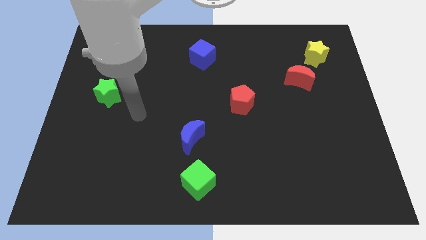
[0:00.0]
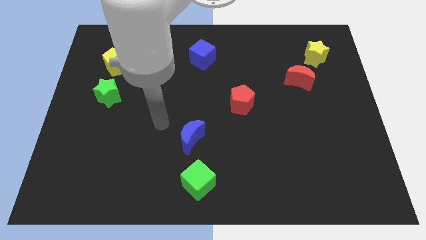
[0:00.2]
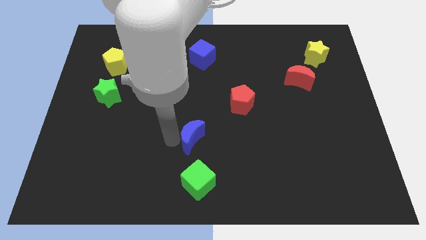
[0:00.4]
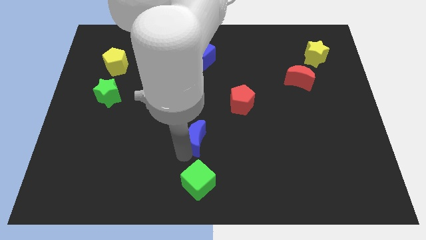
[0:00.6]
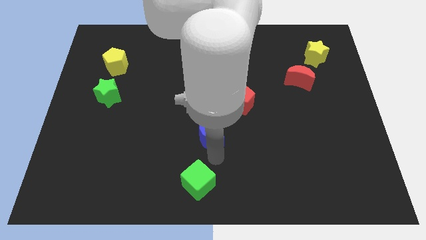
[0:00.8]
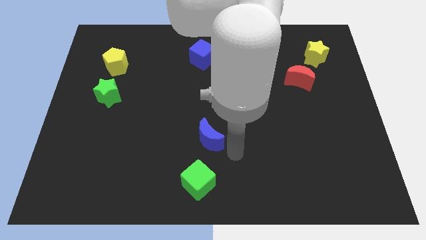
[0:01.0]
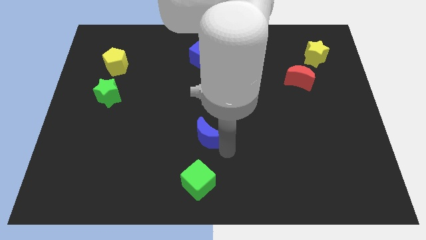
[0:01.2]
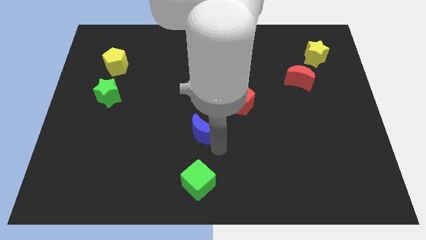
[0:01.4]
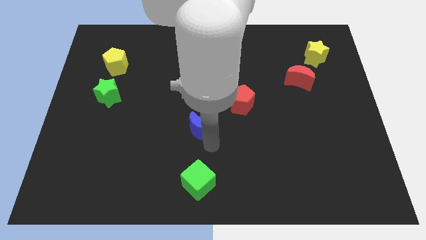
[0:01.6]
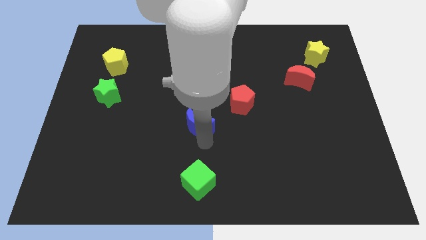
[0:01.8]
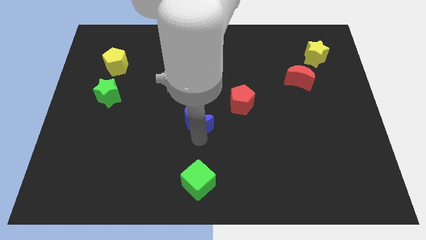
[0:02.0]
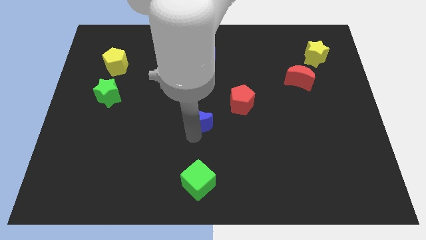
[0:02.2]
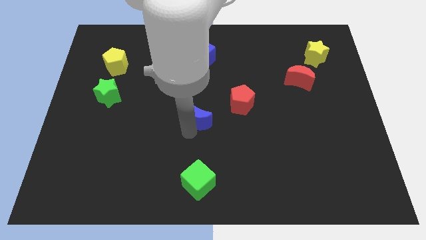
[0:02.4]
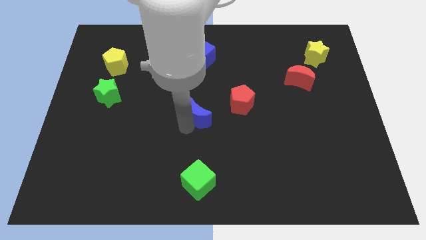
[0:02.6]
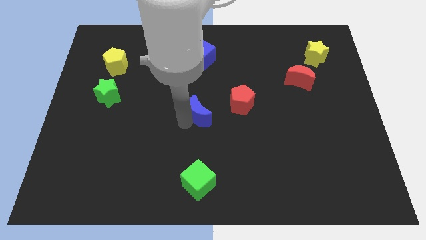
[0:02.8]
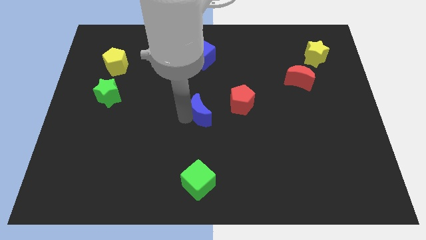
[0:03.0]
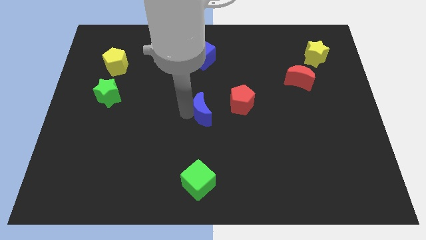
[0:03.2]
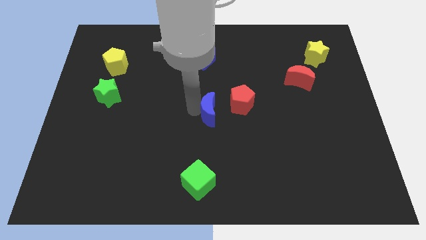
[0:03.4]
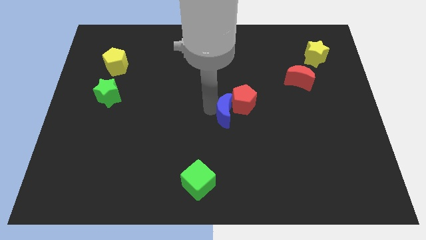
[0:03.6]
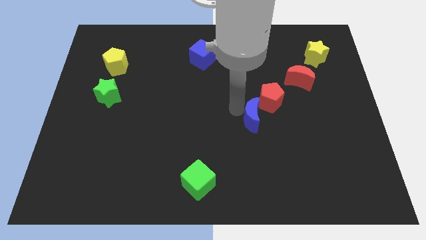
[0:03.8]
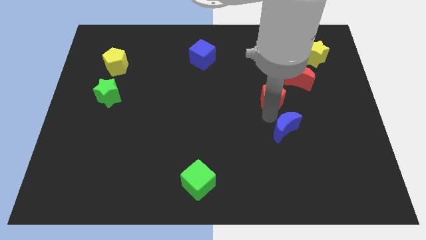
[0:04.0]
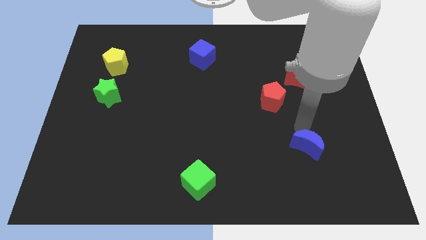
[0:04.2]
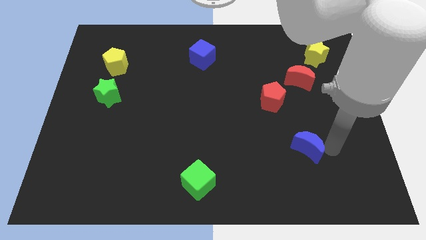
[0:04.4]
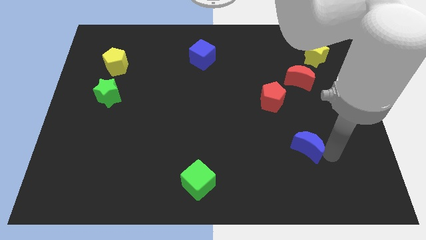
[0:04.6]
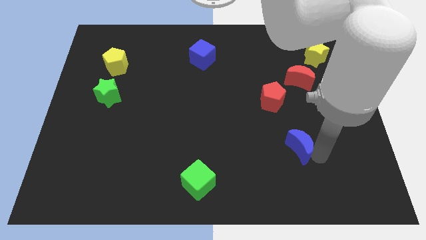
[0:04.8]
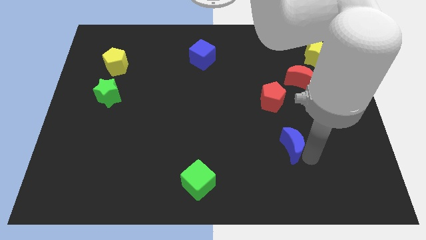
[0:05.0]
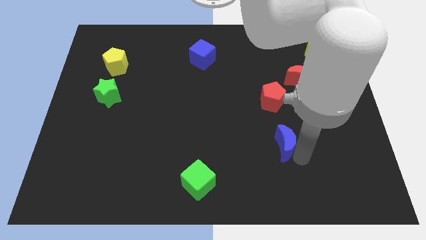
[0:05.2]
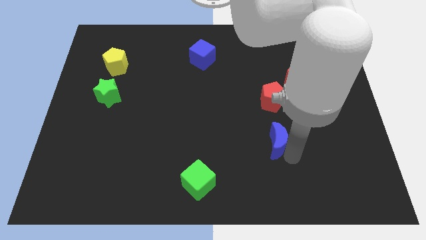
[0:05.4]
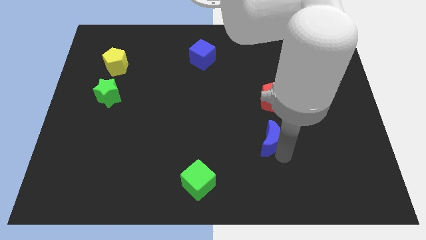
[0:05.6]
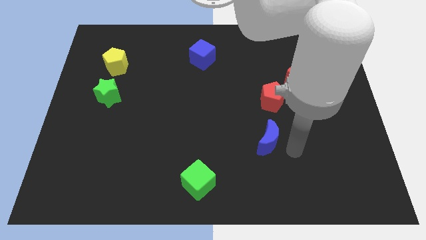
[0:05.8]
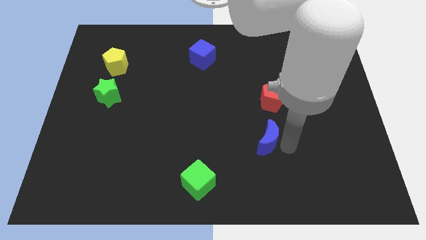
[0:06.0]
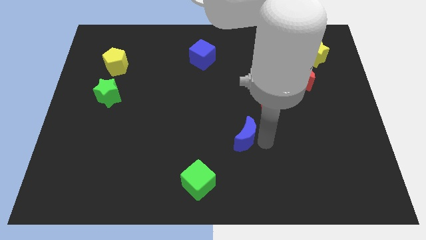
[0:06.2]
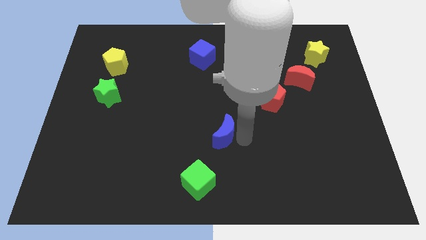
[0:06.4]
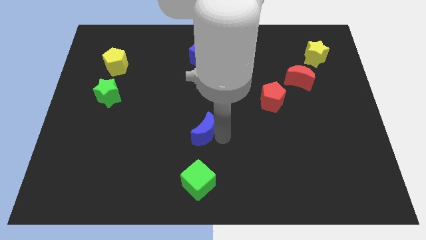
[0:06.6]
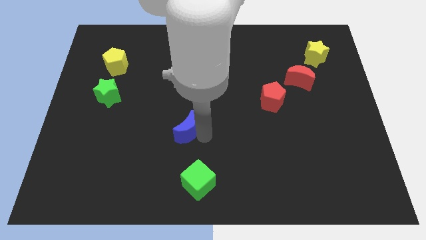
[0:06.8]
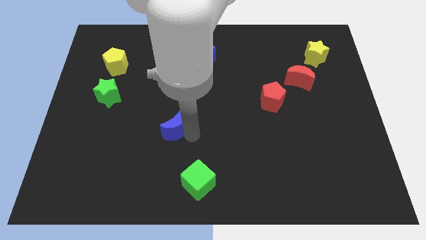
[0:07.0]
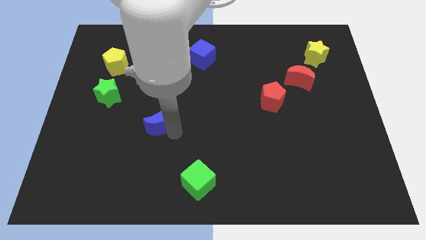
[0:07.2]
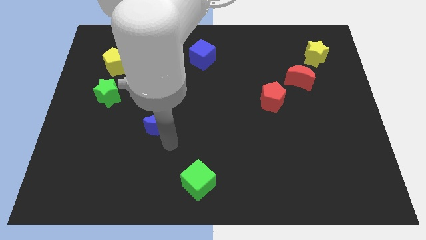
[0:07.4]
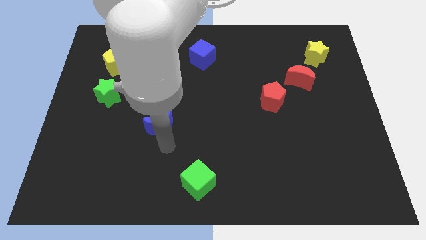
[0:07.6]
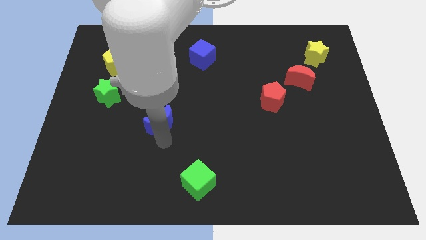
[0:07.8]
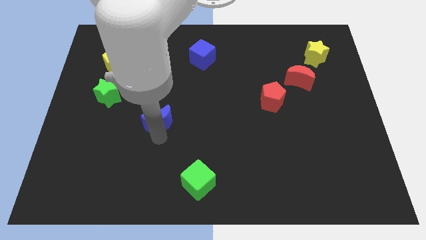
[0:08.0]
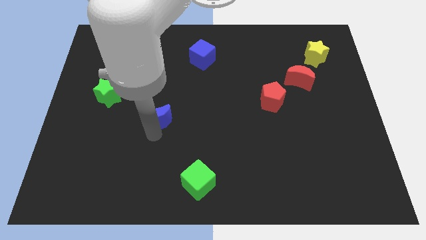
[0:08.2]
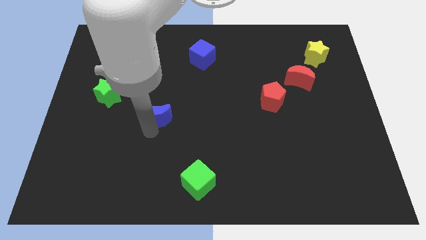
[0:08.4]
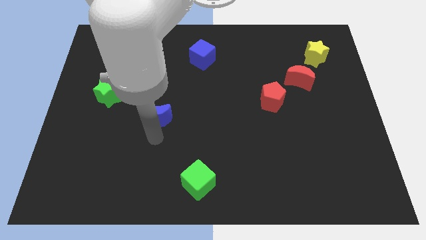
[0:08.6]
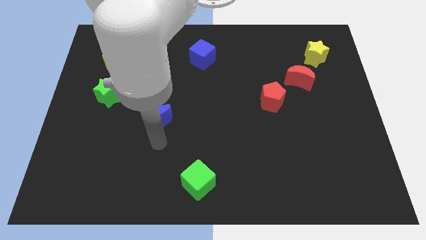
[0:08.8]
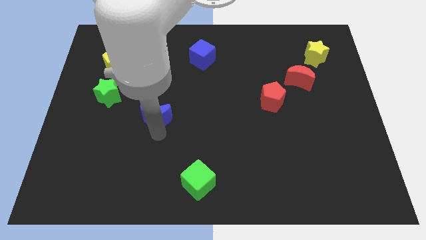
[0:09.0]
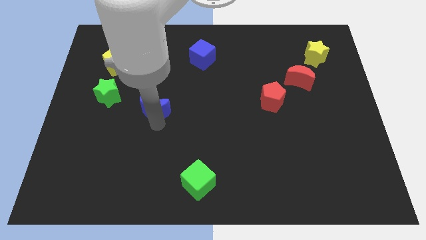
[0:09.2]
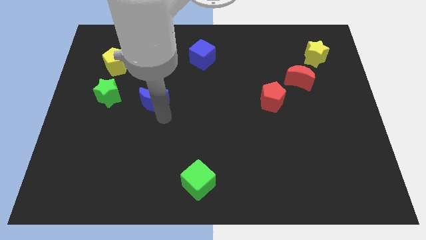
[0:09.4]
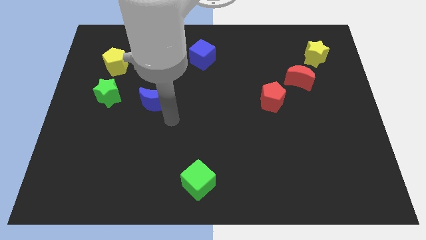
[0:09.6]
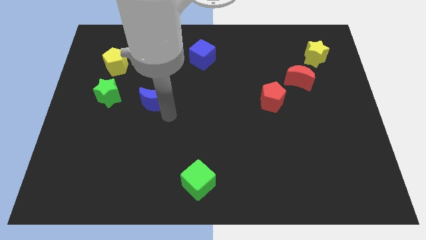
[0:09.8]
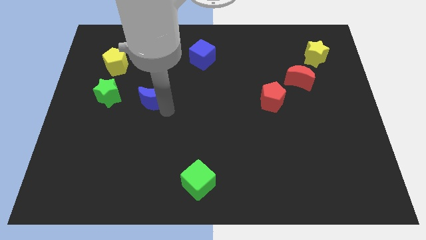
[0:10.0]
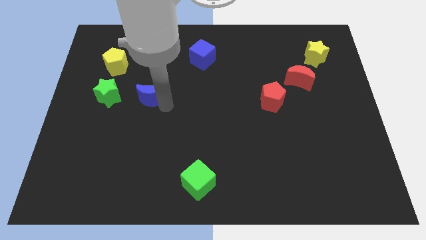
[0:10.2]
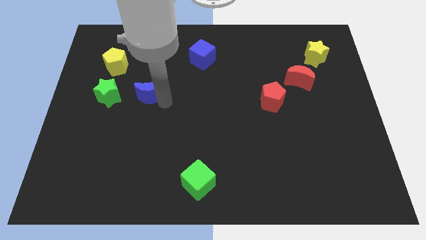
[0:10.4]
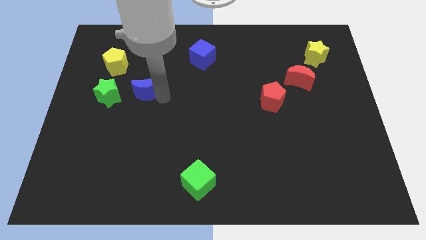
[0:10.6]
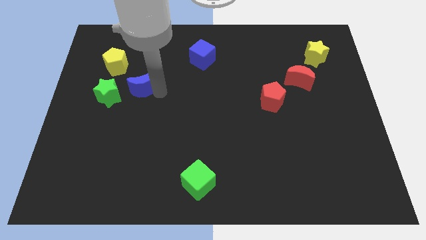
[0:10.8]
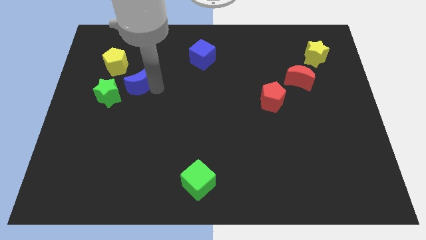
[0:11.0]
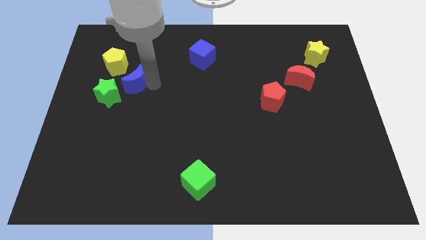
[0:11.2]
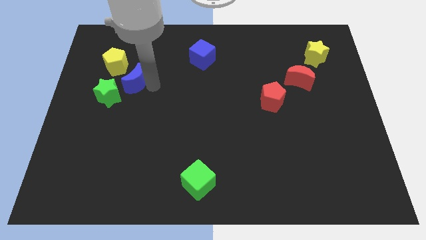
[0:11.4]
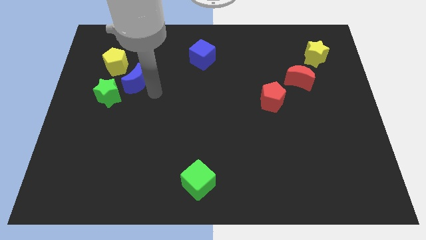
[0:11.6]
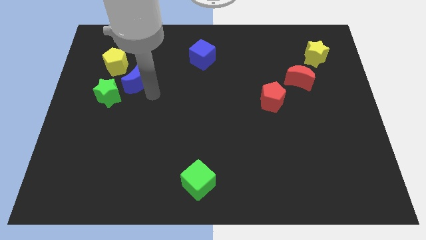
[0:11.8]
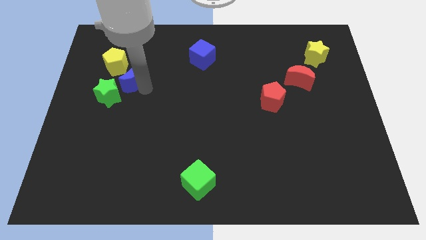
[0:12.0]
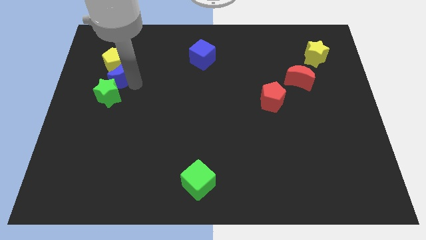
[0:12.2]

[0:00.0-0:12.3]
slide the blue moon next to the yellow pentagon

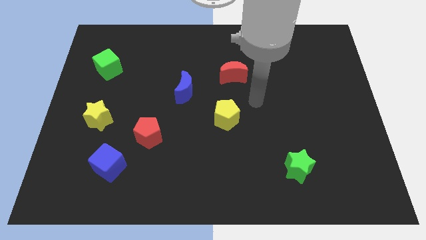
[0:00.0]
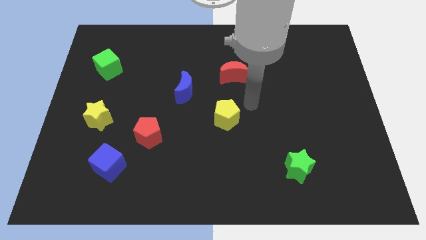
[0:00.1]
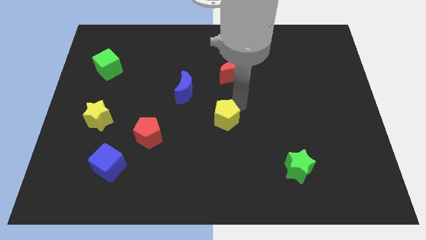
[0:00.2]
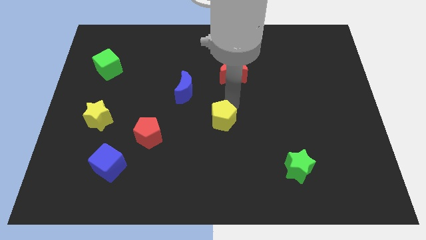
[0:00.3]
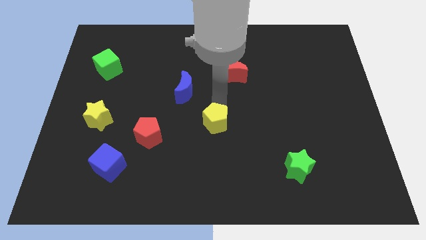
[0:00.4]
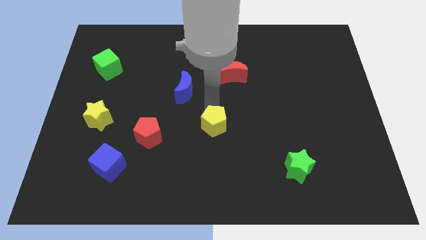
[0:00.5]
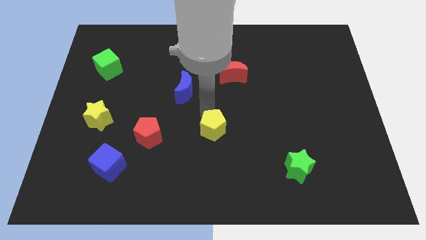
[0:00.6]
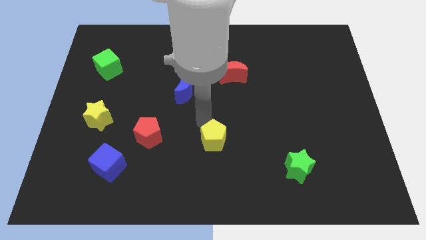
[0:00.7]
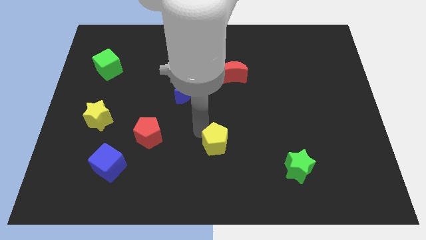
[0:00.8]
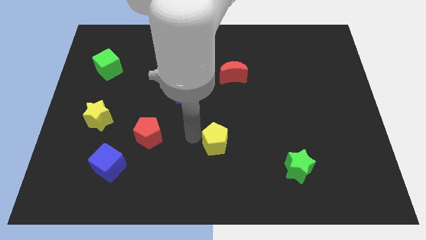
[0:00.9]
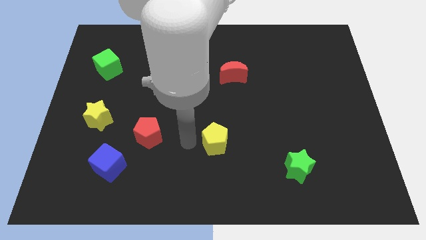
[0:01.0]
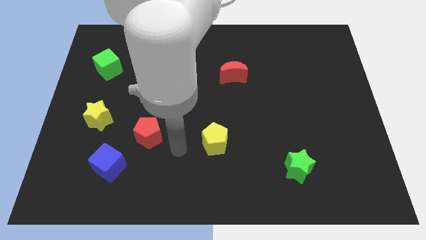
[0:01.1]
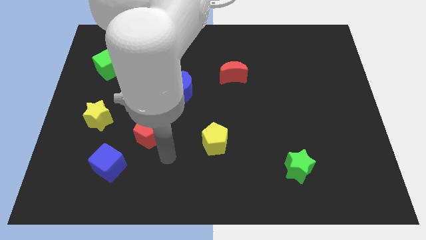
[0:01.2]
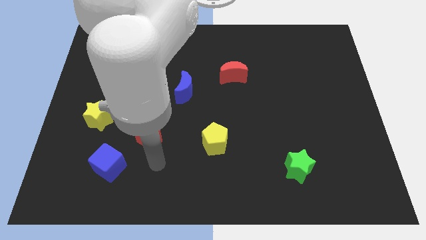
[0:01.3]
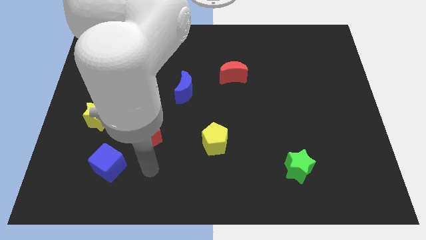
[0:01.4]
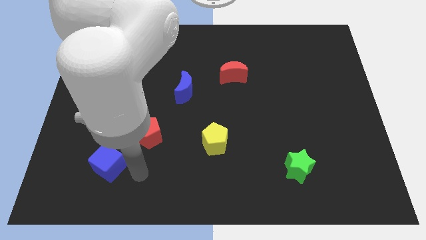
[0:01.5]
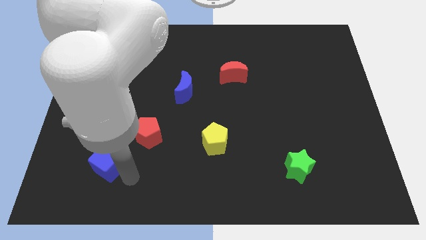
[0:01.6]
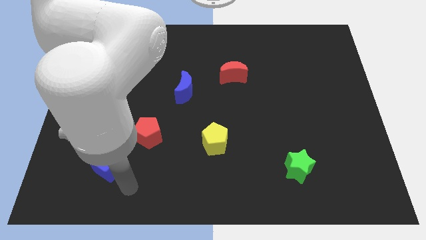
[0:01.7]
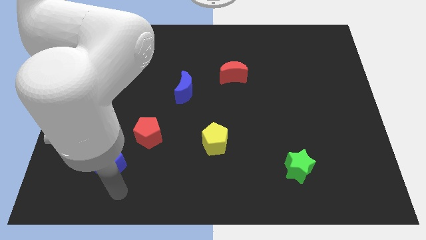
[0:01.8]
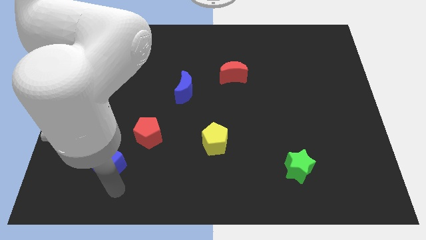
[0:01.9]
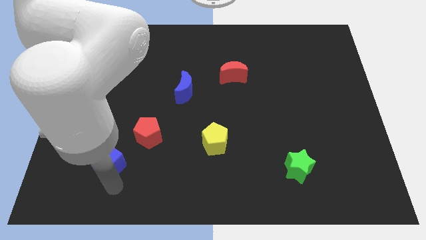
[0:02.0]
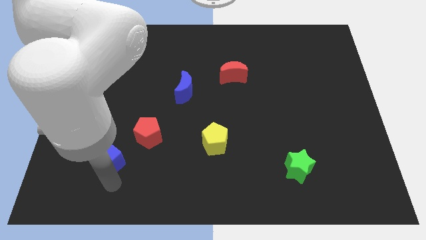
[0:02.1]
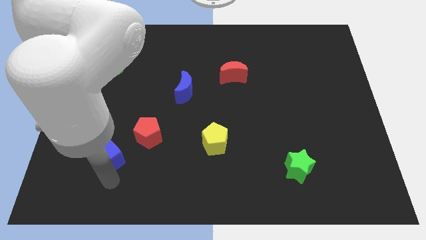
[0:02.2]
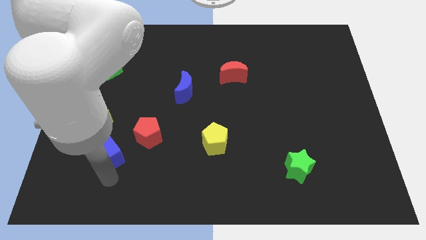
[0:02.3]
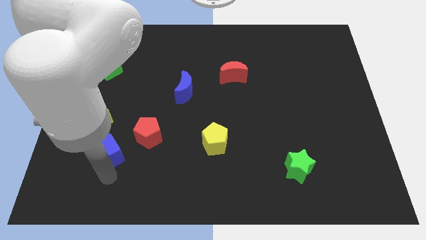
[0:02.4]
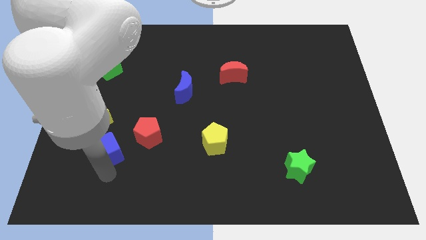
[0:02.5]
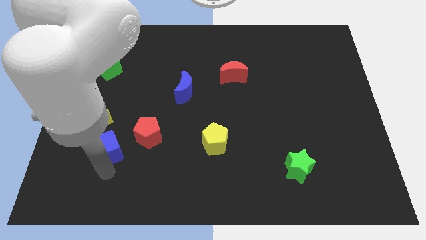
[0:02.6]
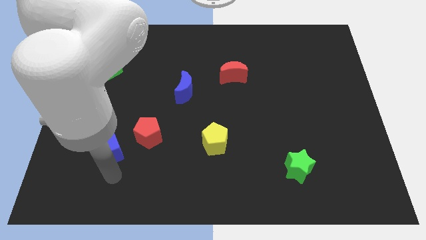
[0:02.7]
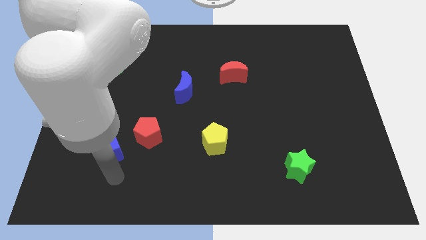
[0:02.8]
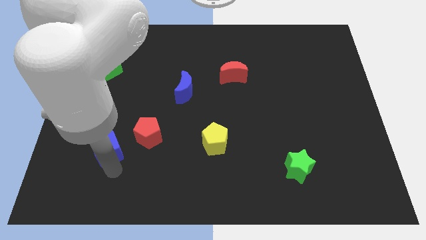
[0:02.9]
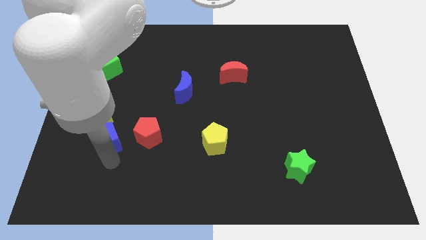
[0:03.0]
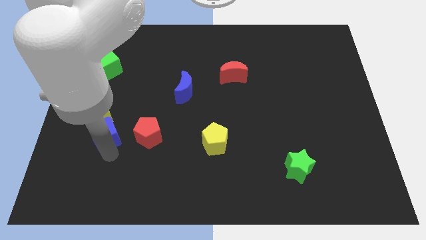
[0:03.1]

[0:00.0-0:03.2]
slide the blue cube close to the yellow star
